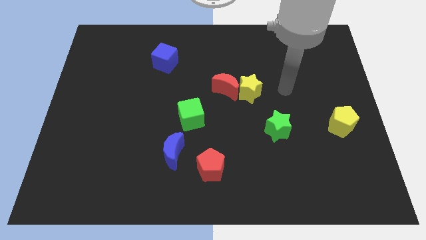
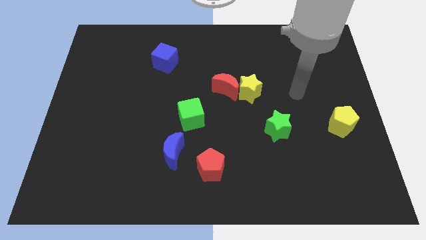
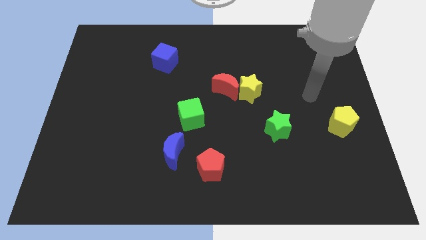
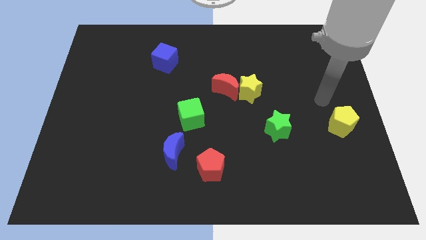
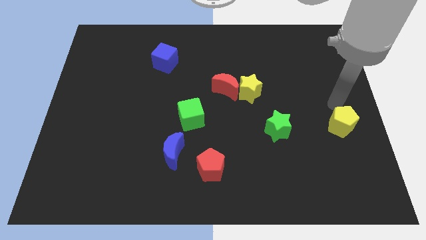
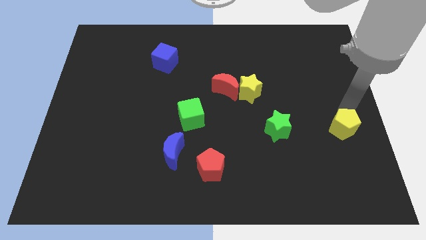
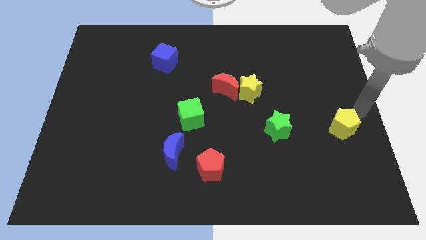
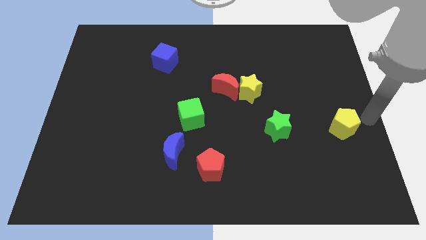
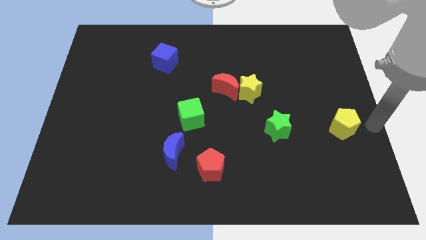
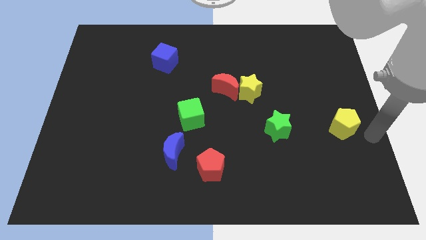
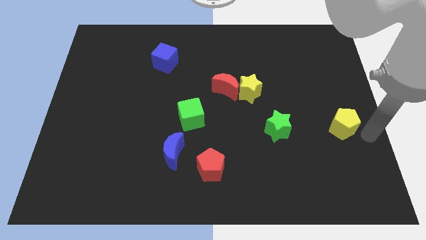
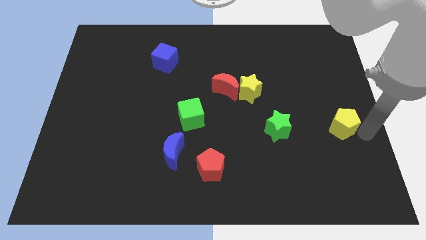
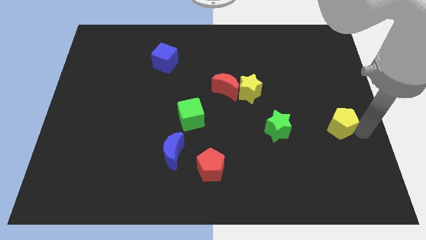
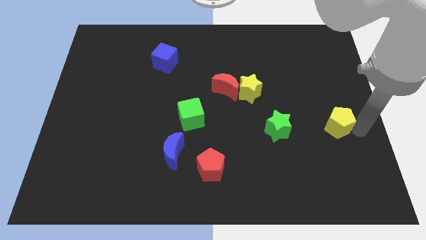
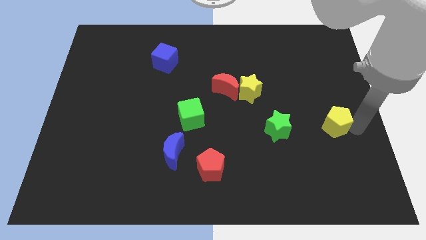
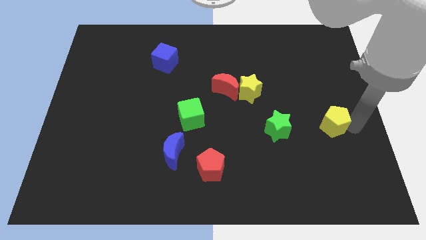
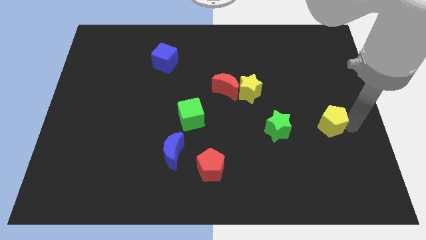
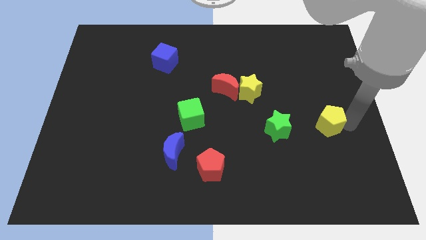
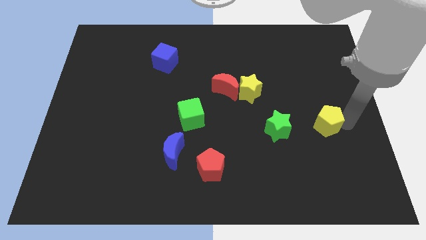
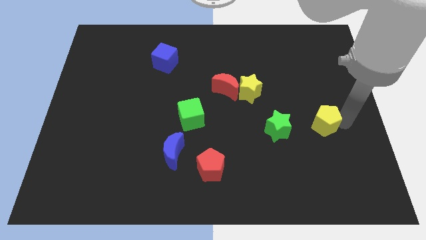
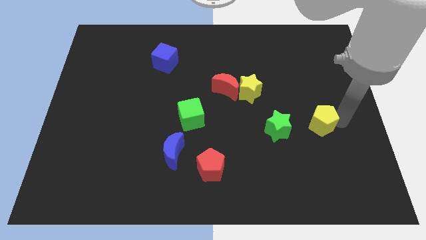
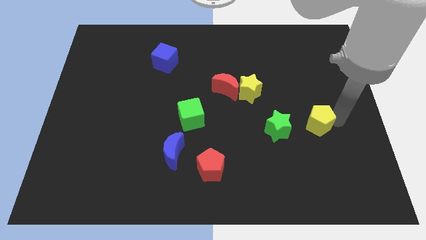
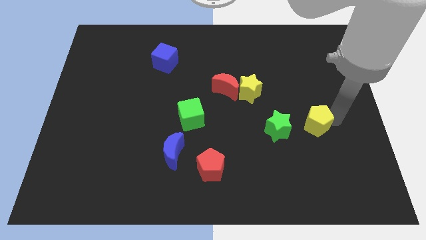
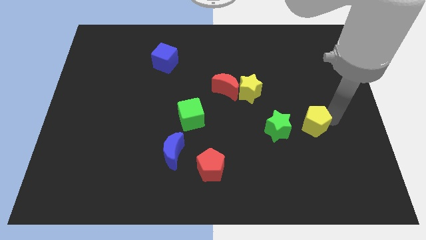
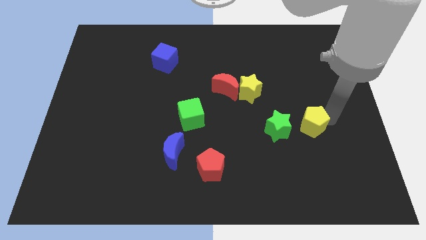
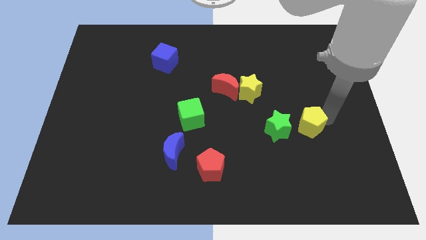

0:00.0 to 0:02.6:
slightly slide the yellow pentagon to the left

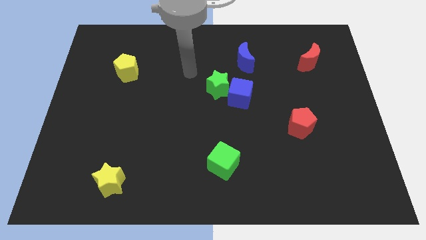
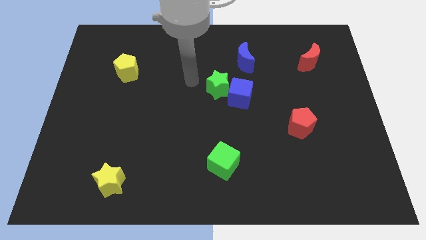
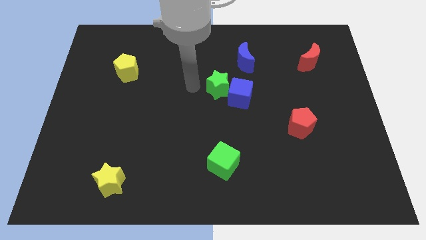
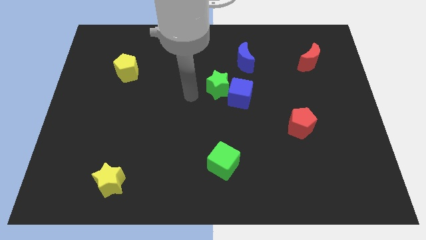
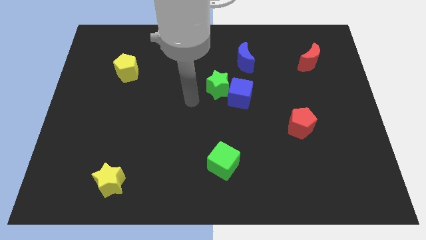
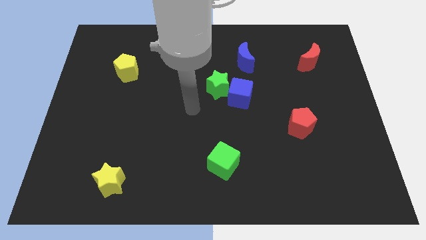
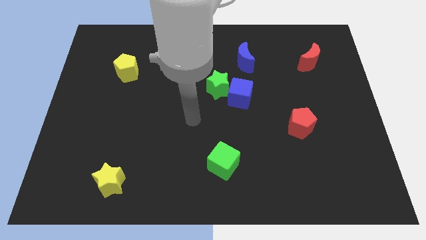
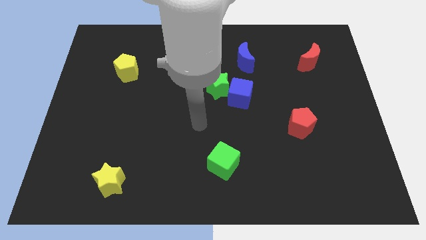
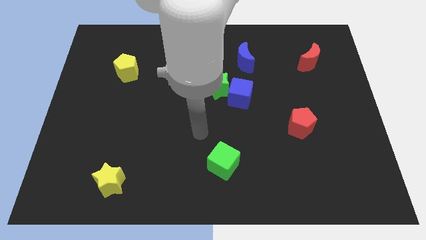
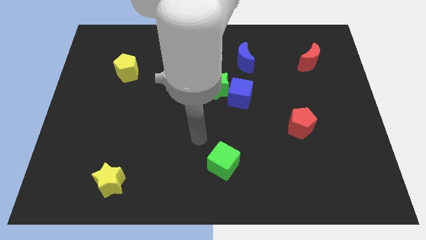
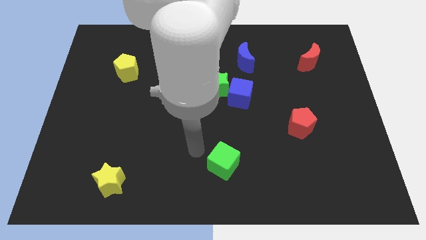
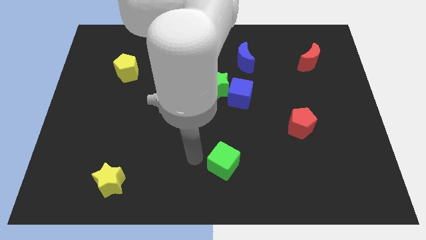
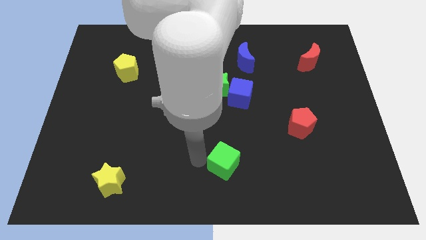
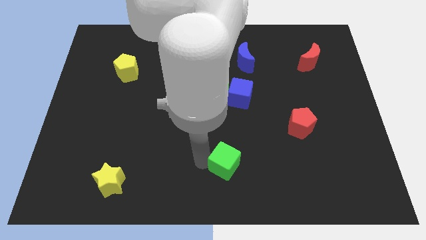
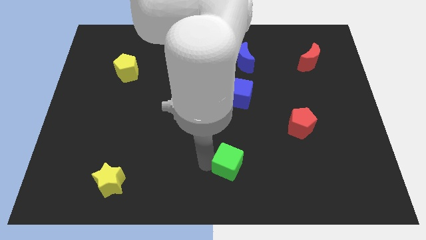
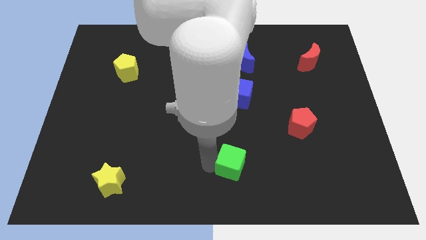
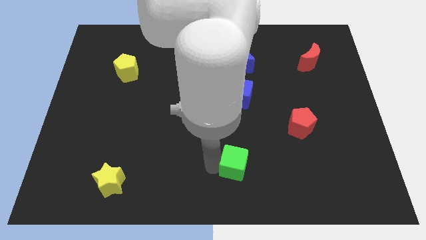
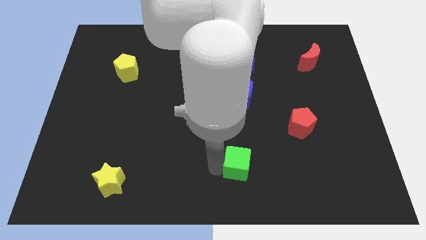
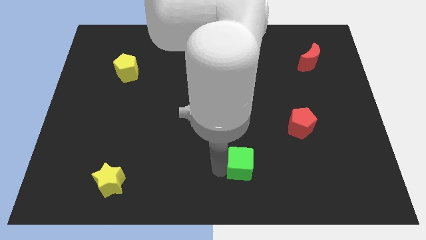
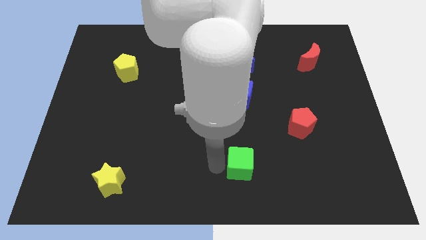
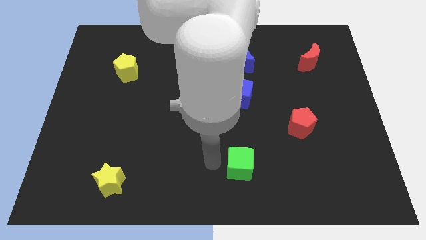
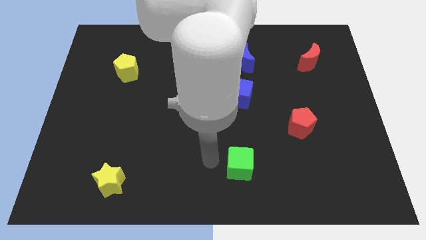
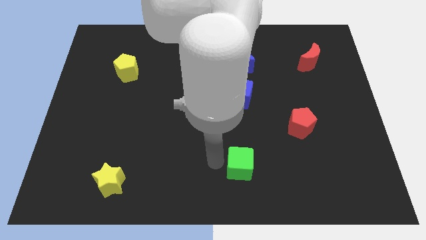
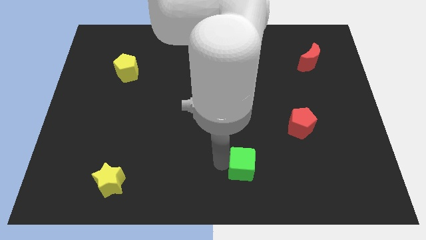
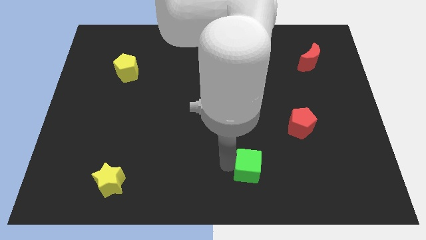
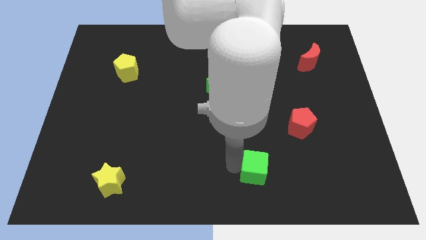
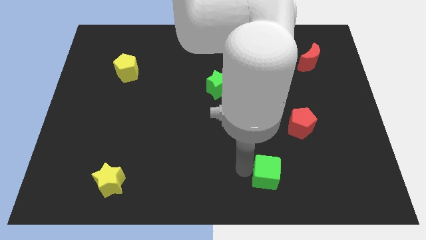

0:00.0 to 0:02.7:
slide the green cube right somewhat

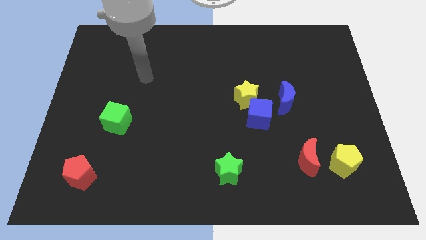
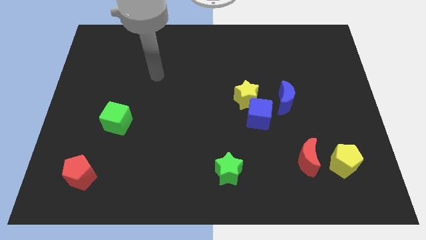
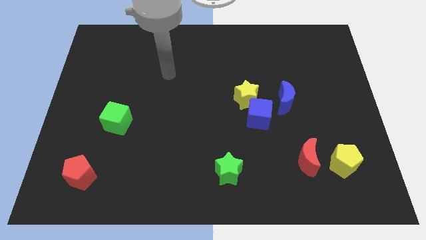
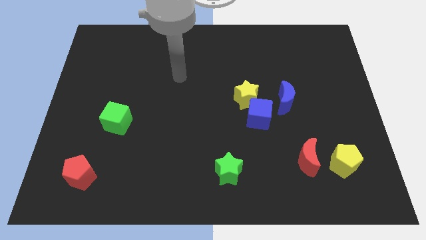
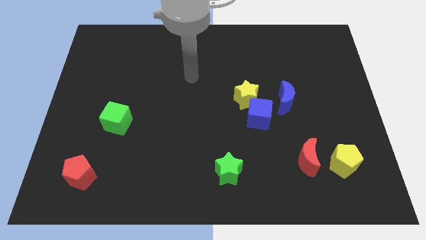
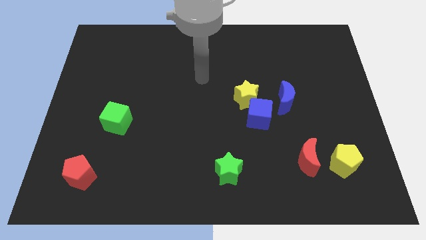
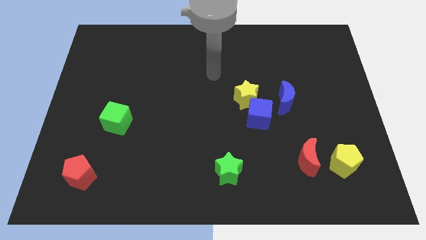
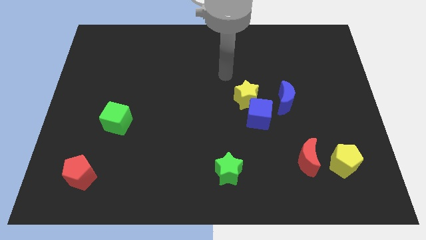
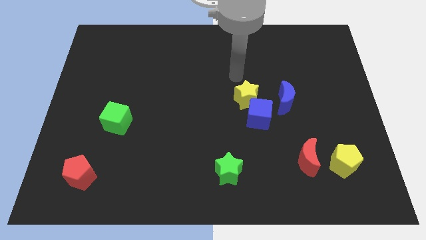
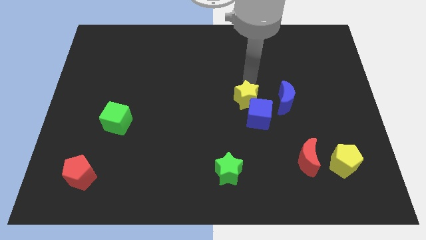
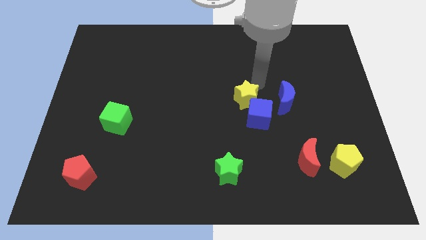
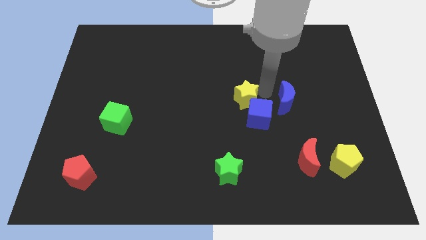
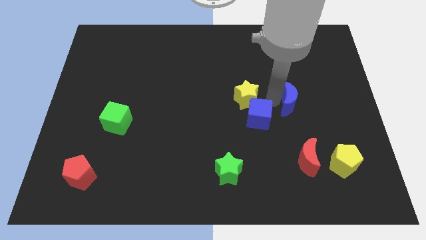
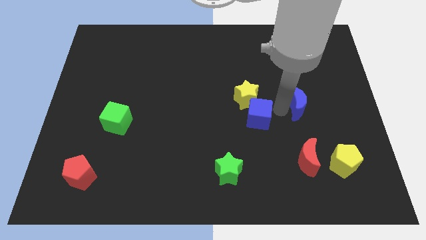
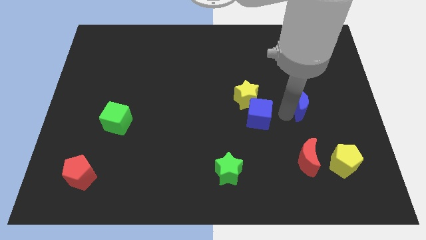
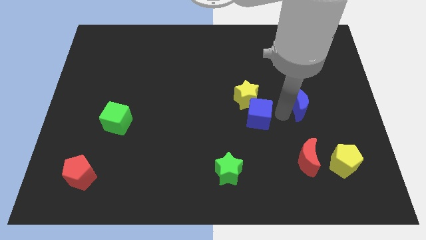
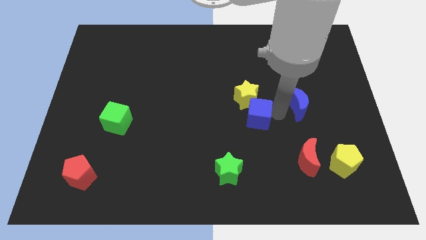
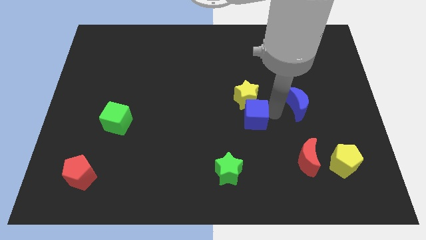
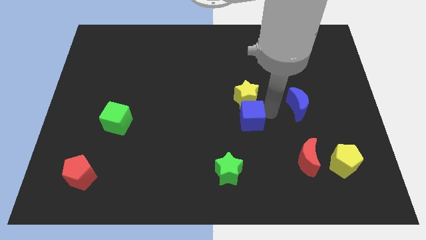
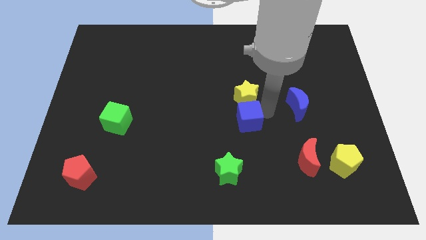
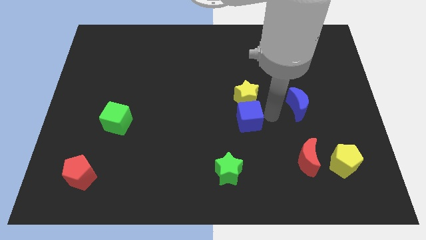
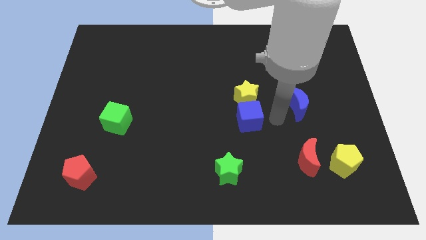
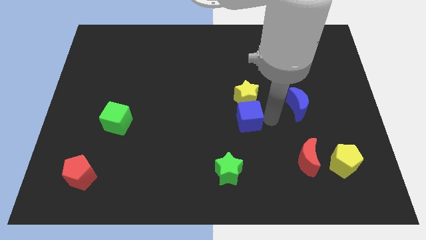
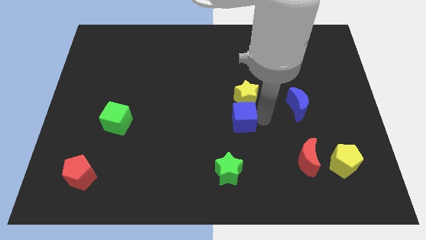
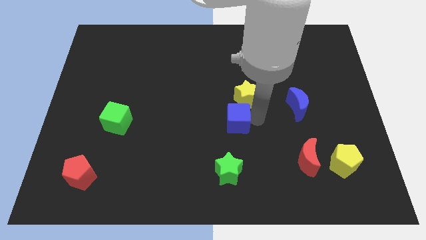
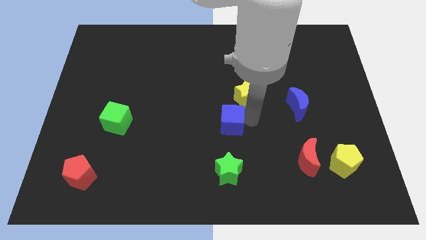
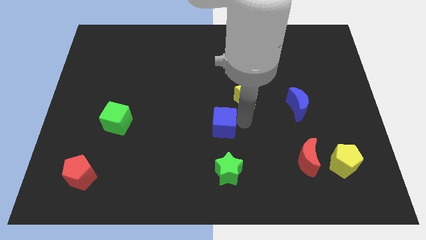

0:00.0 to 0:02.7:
slightly move the blue cube to the left

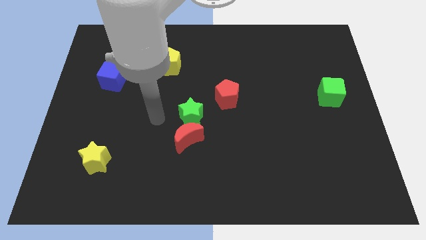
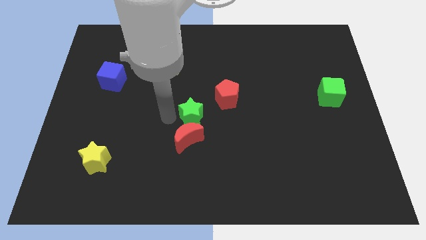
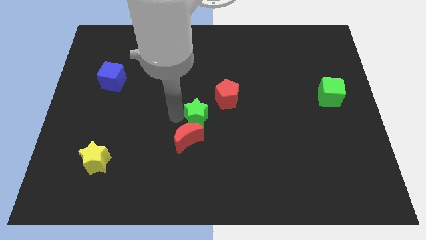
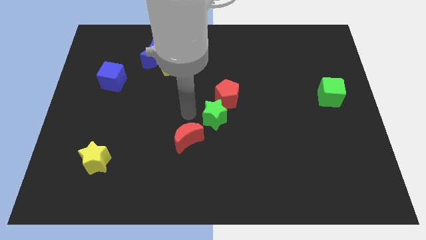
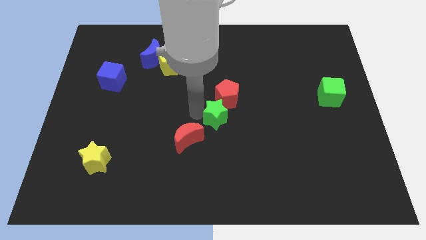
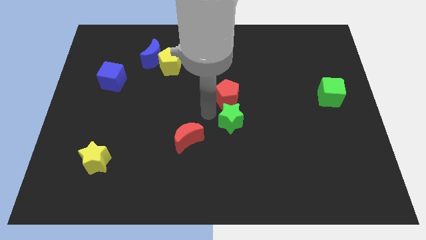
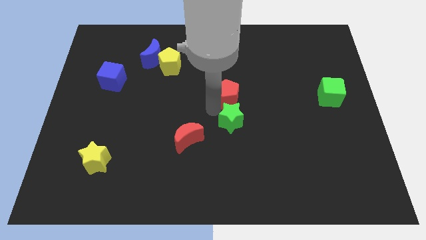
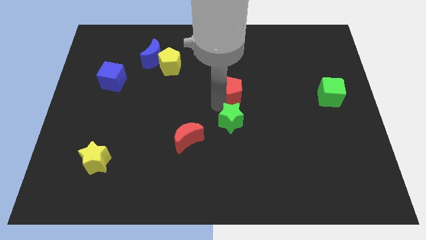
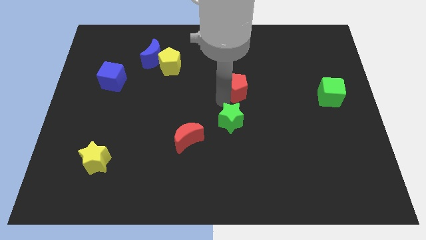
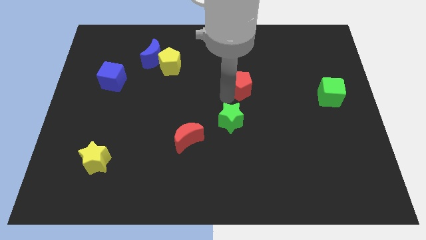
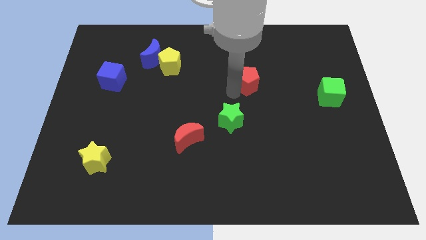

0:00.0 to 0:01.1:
slightly move the red pentagon upwards and then to the right
